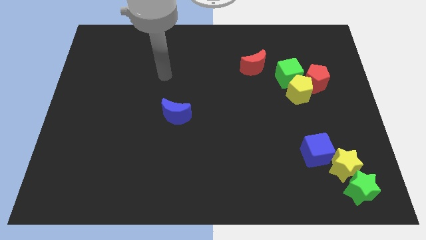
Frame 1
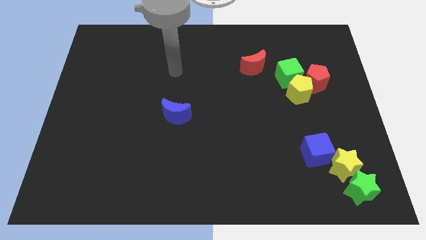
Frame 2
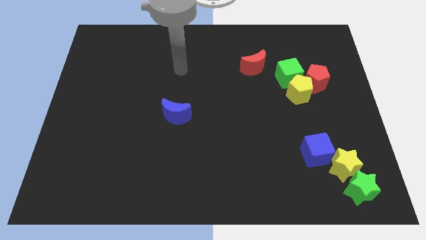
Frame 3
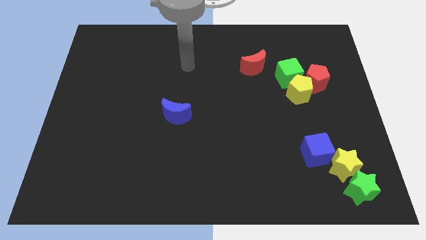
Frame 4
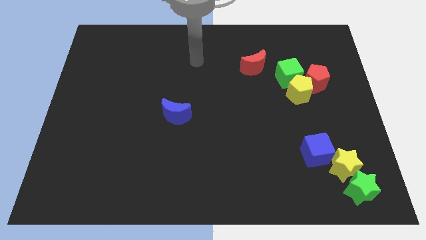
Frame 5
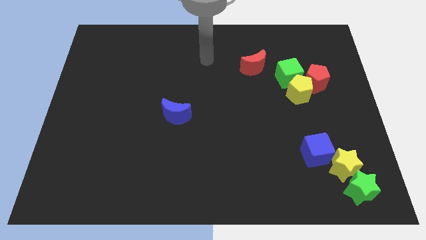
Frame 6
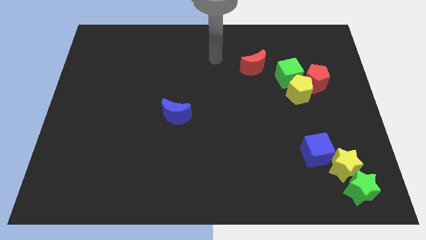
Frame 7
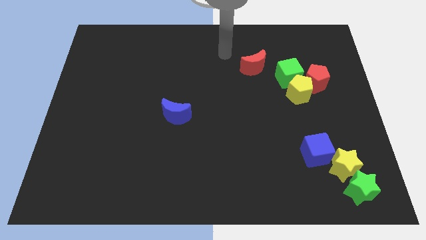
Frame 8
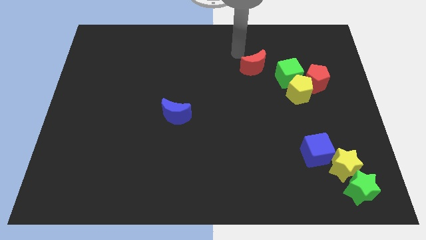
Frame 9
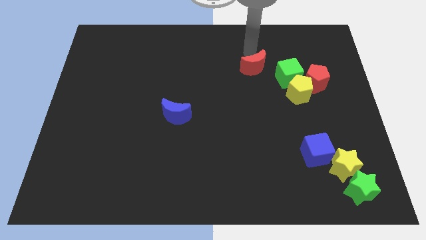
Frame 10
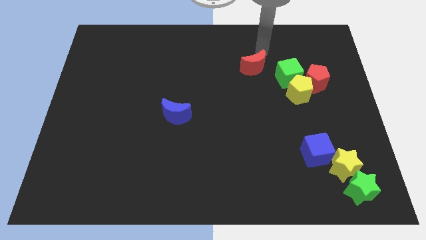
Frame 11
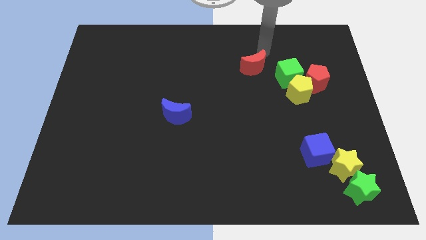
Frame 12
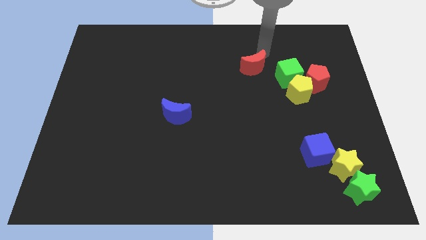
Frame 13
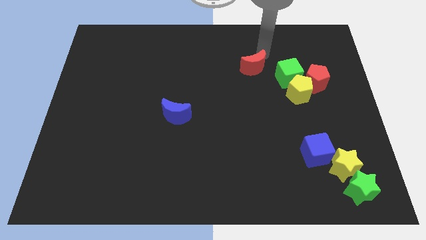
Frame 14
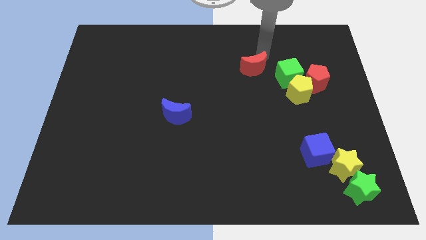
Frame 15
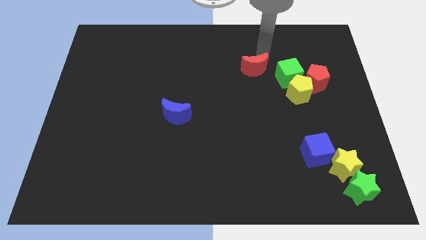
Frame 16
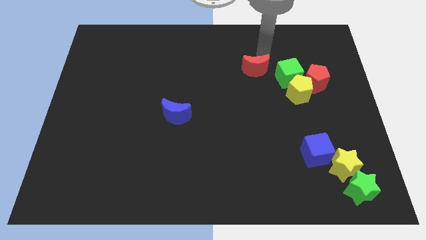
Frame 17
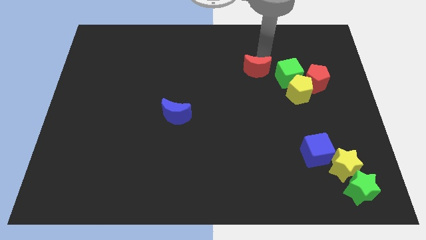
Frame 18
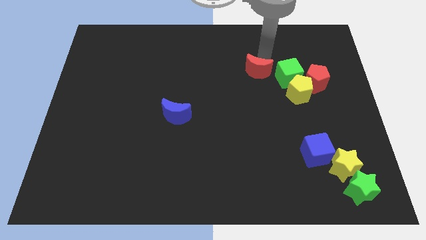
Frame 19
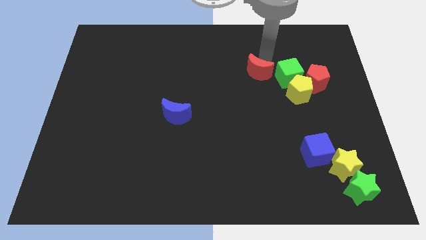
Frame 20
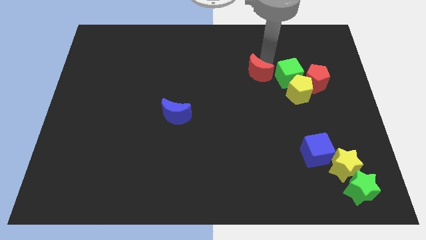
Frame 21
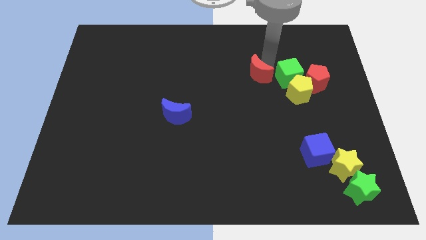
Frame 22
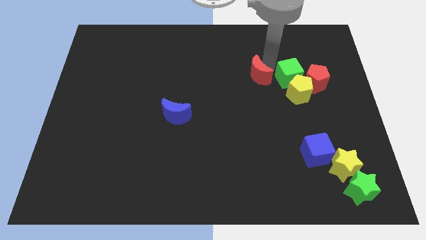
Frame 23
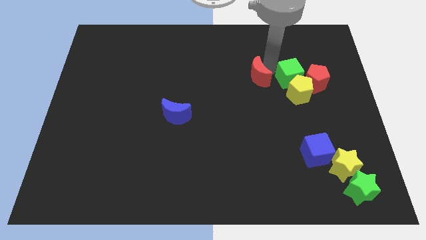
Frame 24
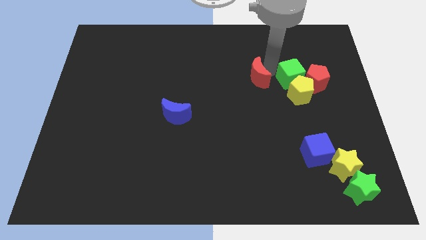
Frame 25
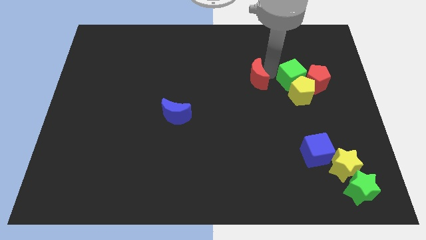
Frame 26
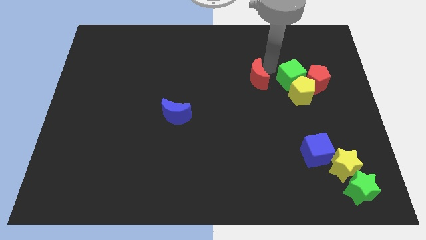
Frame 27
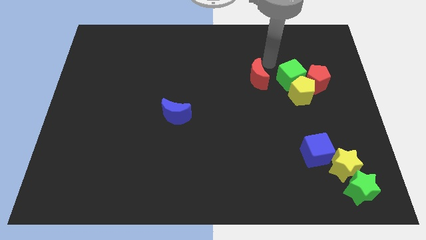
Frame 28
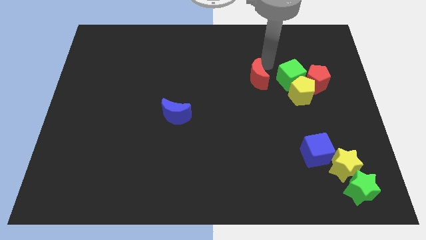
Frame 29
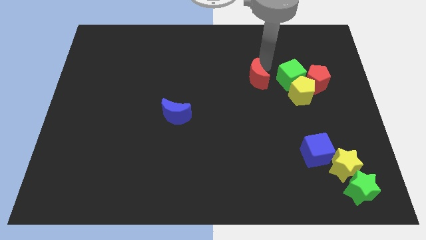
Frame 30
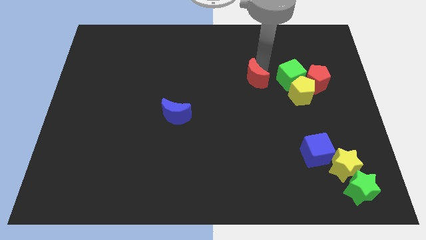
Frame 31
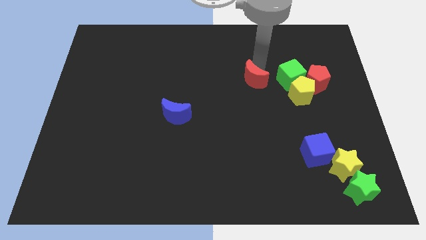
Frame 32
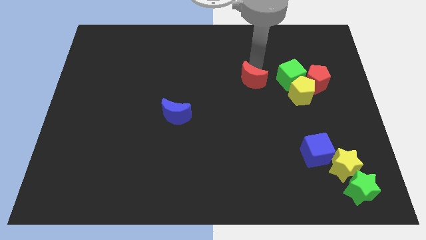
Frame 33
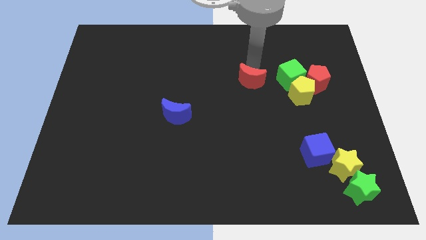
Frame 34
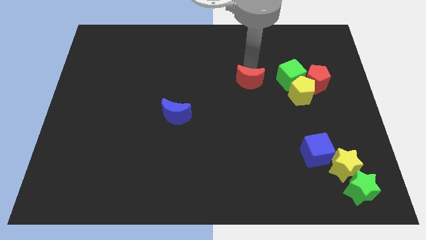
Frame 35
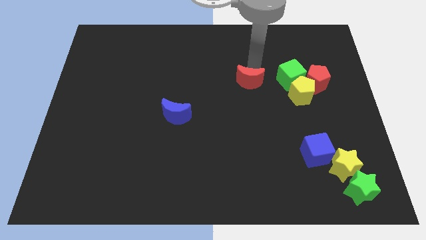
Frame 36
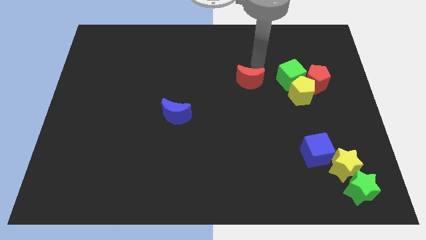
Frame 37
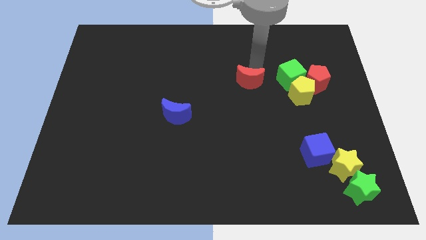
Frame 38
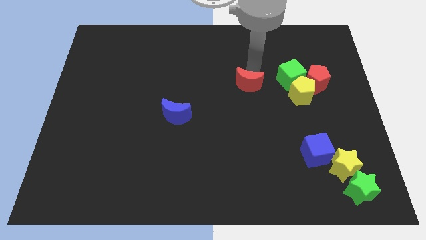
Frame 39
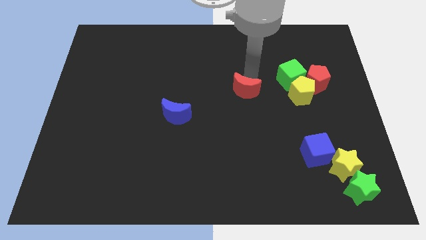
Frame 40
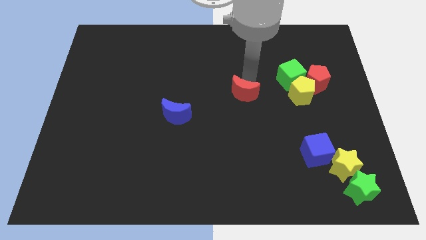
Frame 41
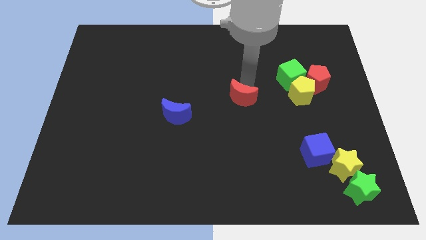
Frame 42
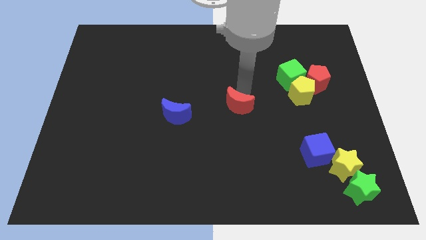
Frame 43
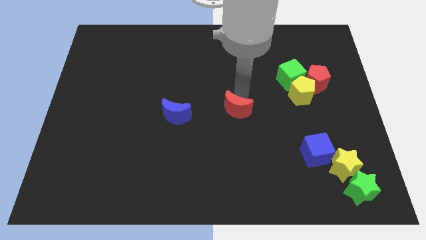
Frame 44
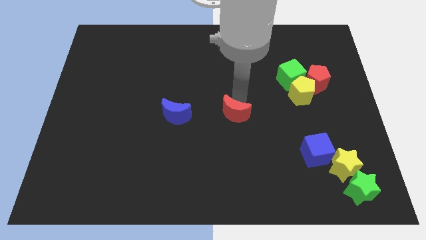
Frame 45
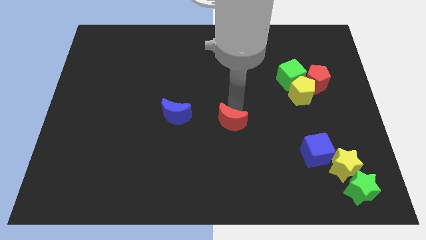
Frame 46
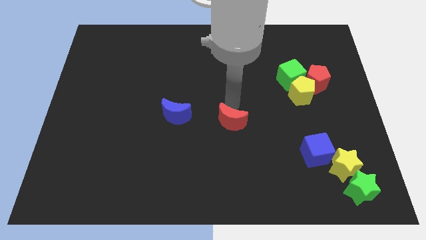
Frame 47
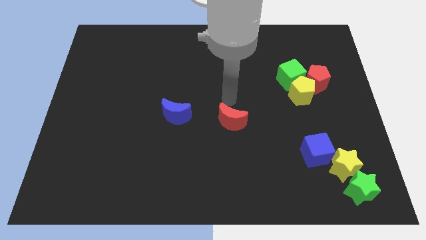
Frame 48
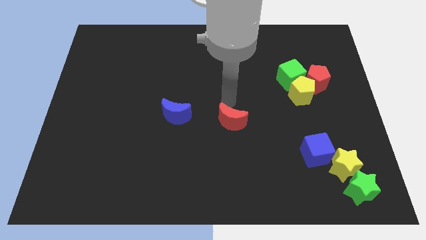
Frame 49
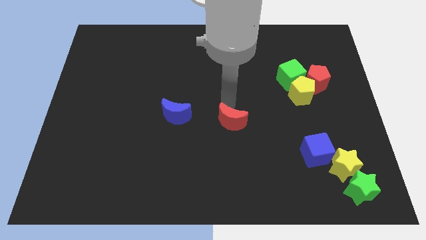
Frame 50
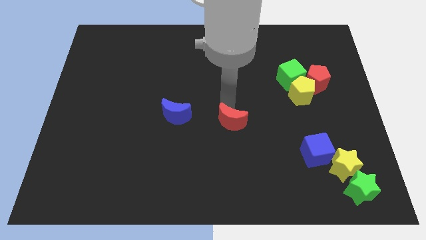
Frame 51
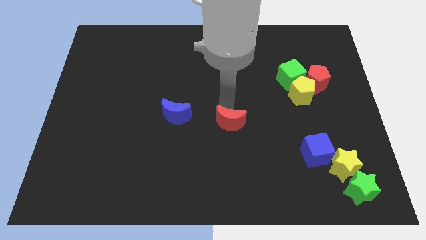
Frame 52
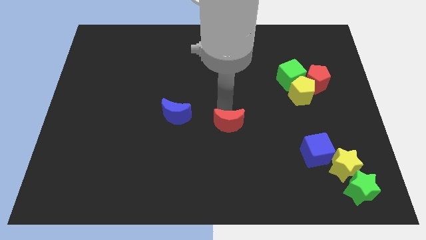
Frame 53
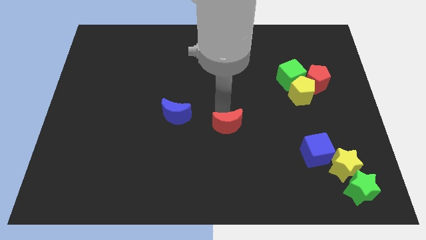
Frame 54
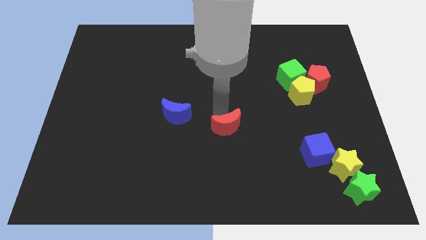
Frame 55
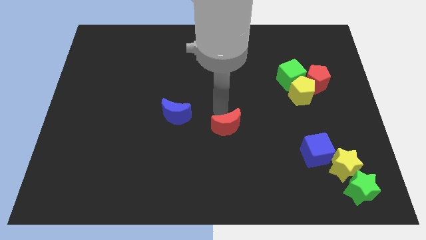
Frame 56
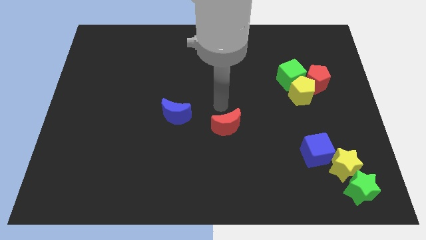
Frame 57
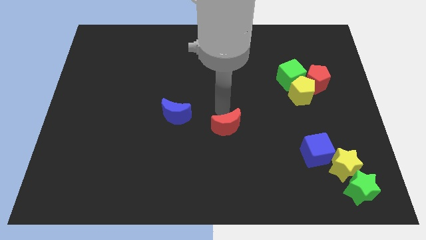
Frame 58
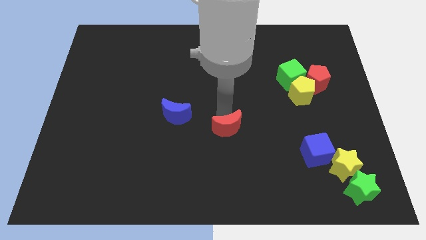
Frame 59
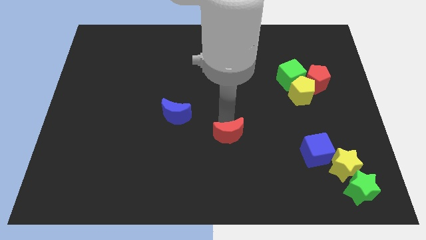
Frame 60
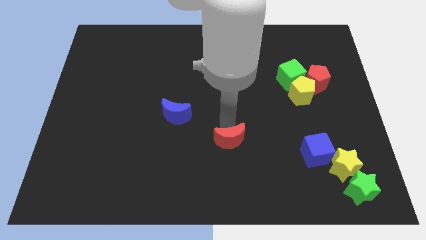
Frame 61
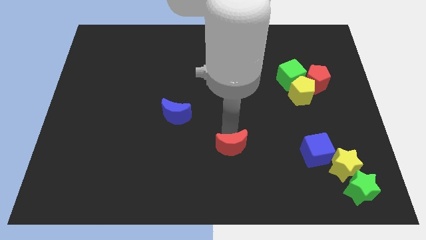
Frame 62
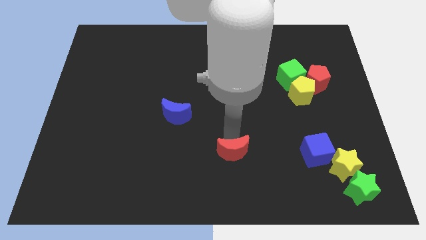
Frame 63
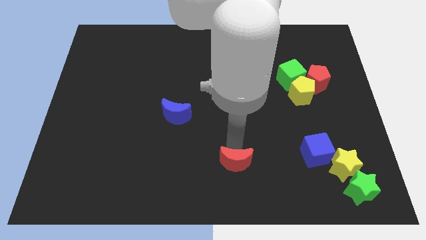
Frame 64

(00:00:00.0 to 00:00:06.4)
slide the red moon to the bottom

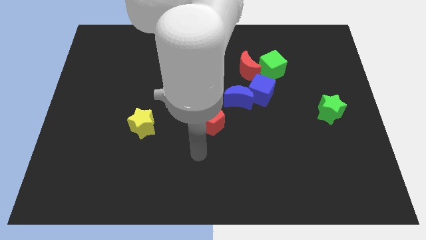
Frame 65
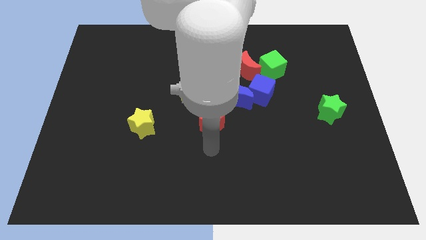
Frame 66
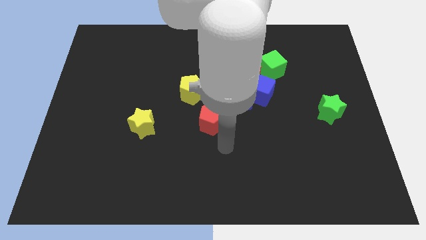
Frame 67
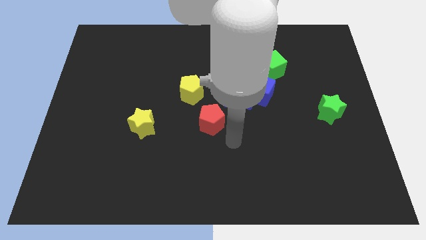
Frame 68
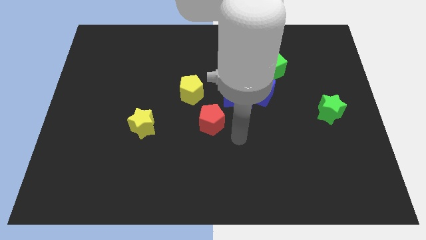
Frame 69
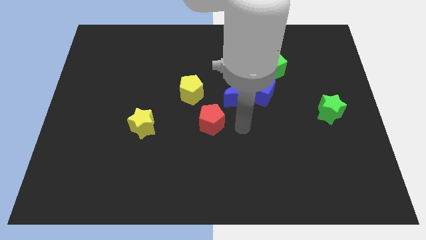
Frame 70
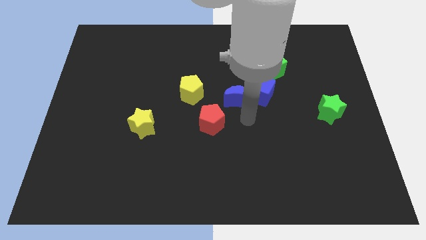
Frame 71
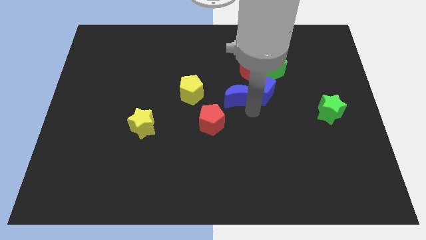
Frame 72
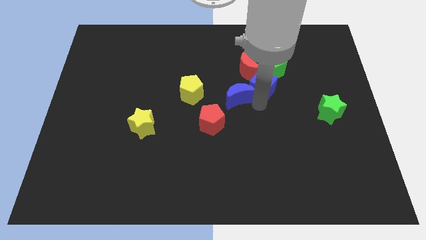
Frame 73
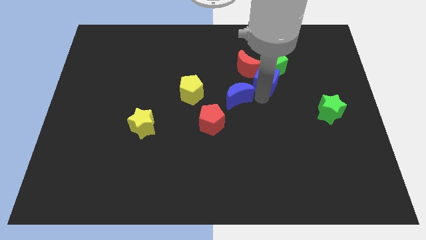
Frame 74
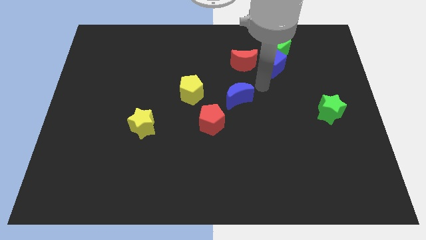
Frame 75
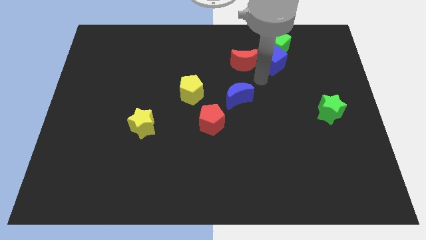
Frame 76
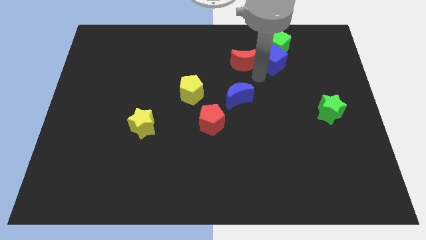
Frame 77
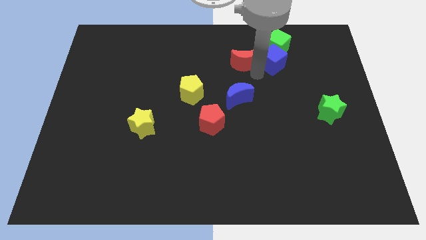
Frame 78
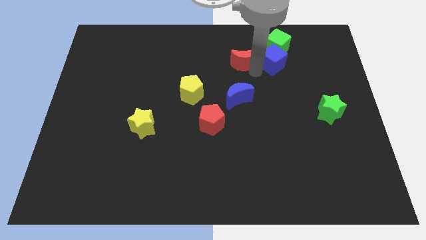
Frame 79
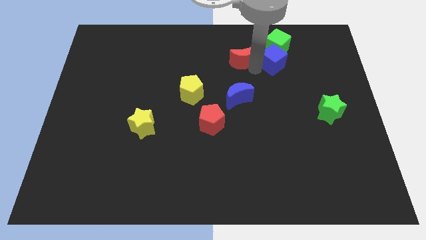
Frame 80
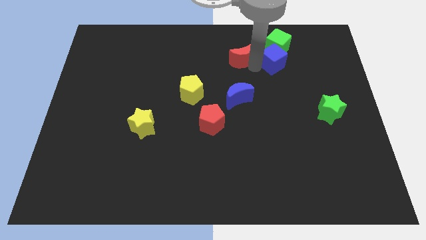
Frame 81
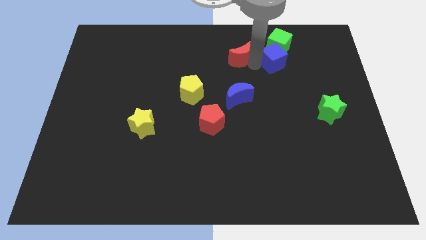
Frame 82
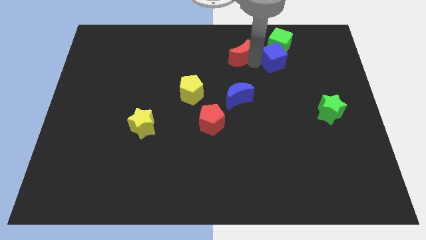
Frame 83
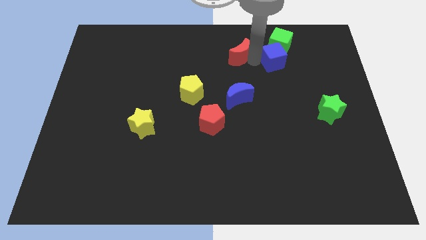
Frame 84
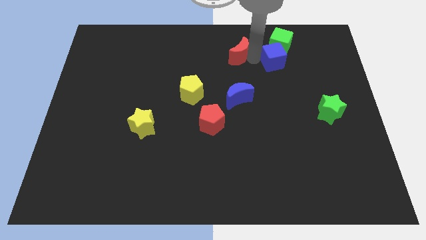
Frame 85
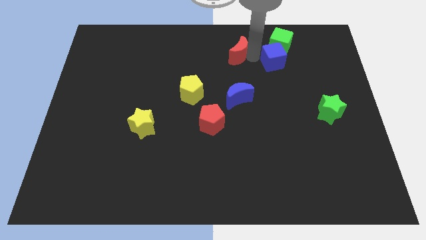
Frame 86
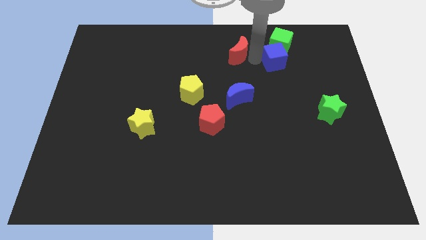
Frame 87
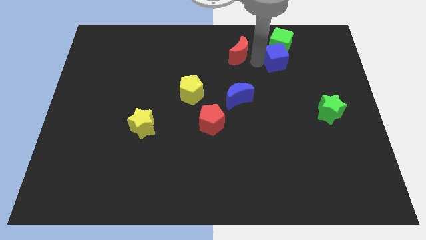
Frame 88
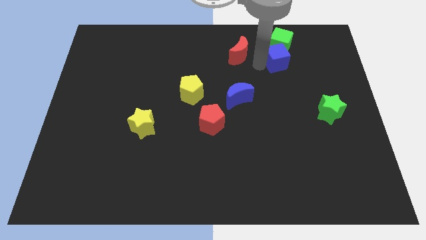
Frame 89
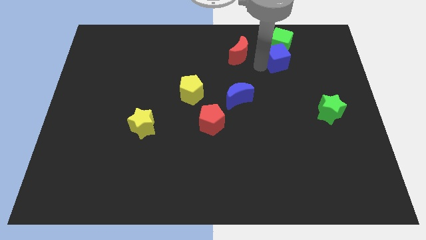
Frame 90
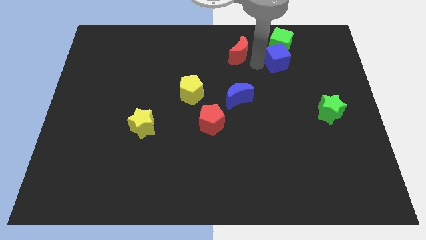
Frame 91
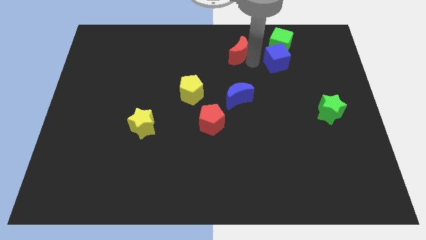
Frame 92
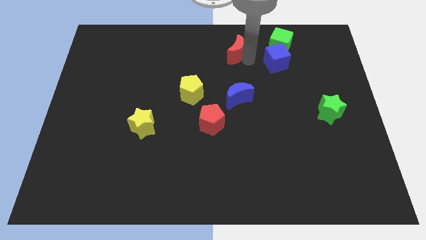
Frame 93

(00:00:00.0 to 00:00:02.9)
move the red moon to the top
